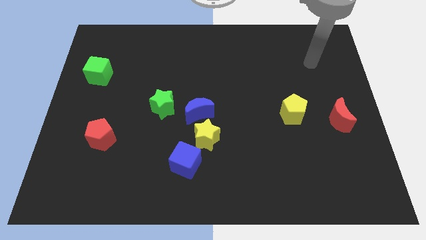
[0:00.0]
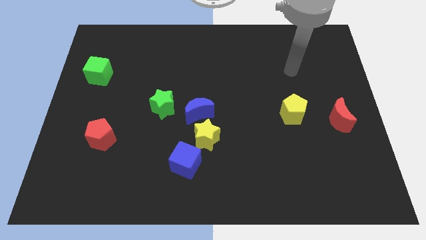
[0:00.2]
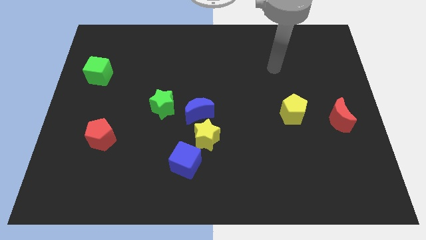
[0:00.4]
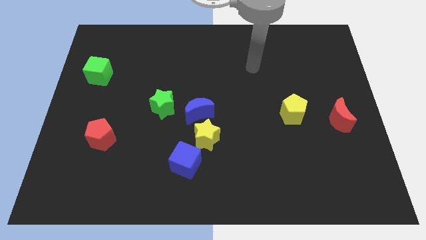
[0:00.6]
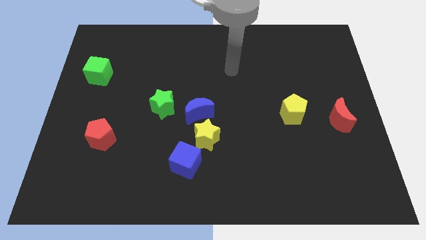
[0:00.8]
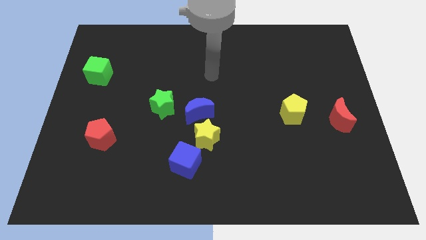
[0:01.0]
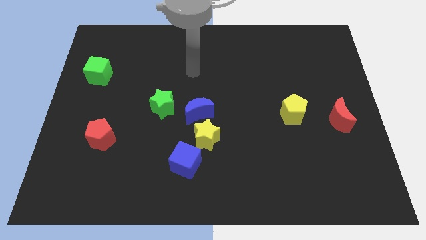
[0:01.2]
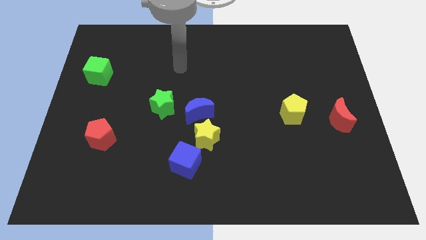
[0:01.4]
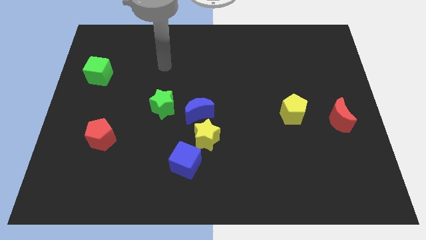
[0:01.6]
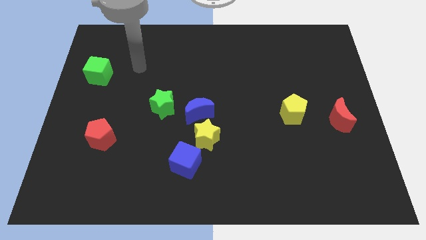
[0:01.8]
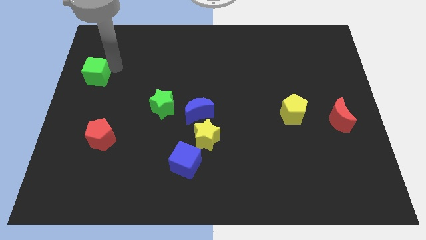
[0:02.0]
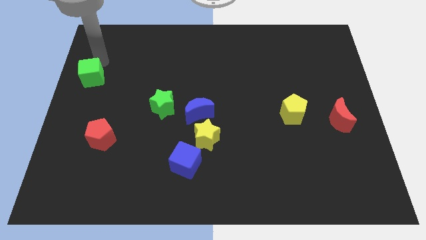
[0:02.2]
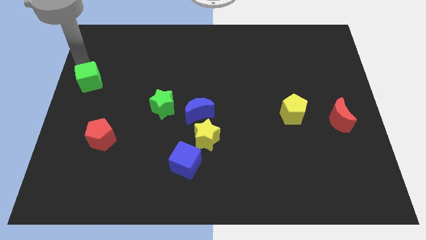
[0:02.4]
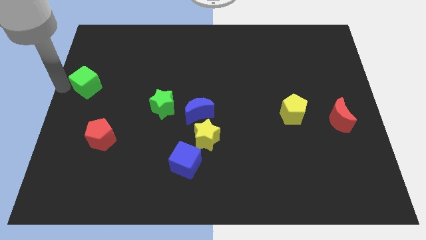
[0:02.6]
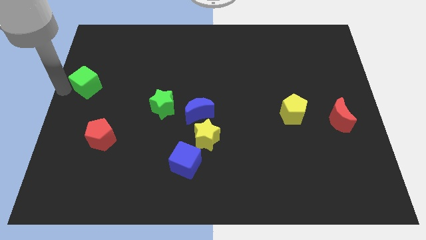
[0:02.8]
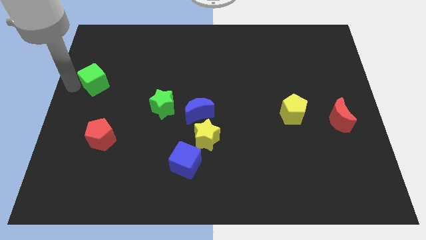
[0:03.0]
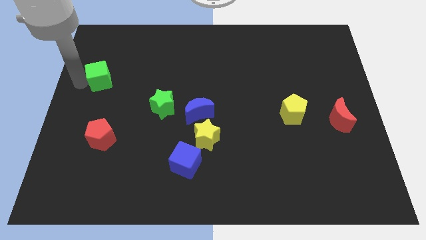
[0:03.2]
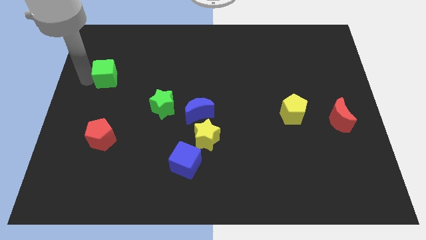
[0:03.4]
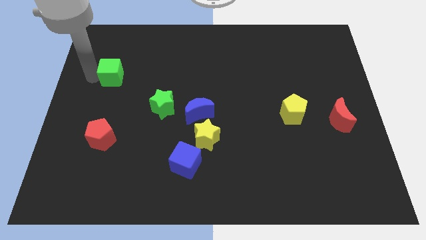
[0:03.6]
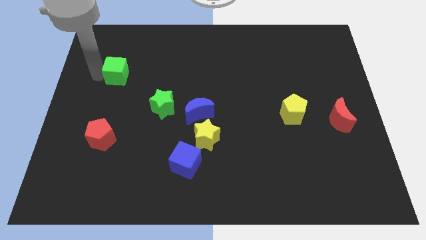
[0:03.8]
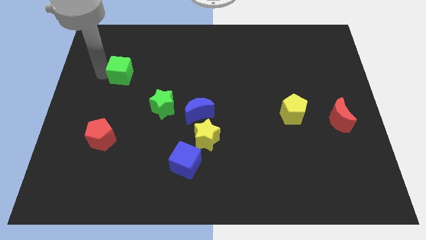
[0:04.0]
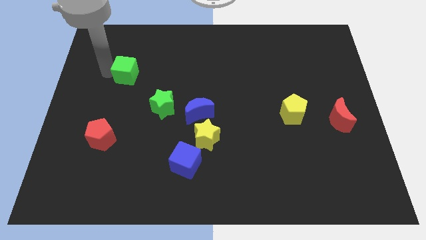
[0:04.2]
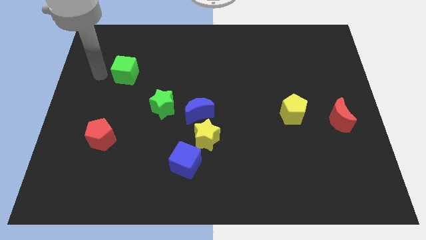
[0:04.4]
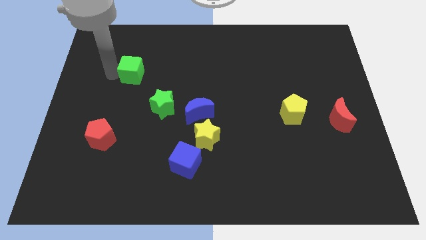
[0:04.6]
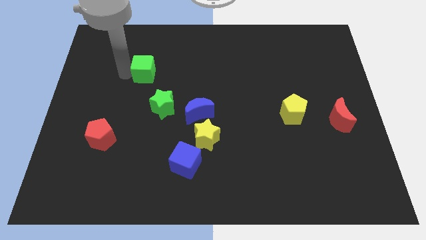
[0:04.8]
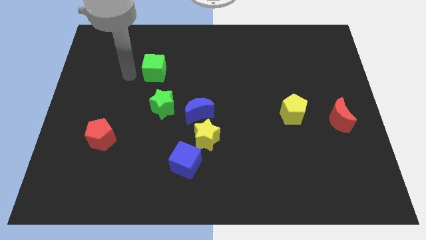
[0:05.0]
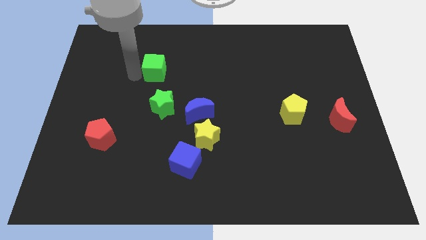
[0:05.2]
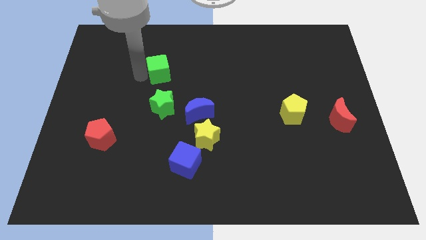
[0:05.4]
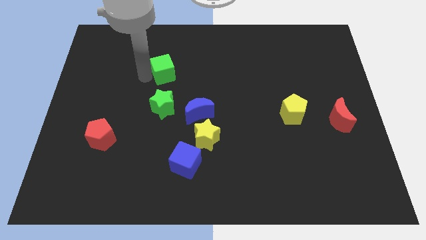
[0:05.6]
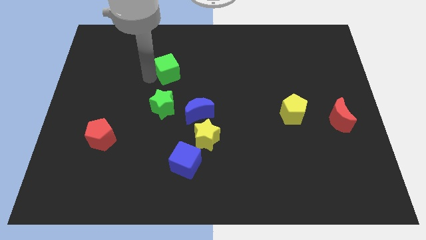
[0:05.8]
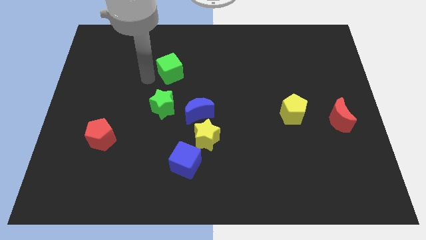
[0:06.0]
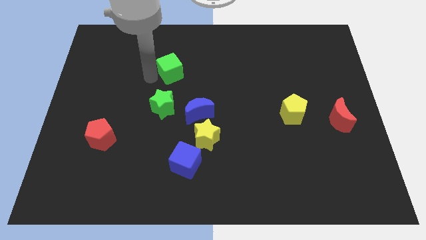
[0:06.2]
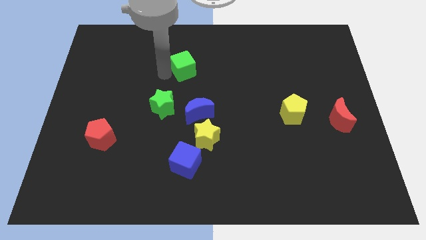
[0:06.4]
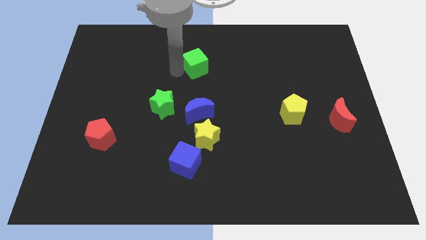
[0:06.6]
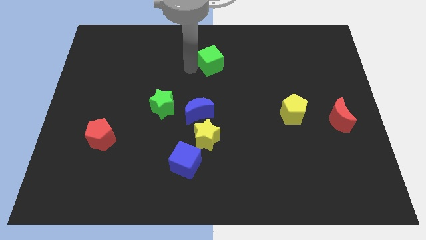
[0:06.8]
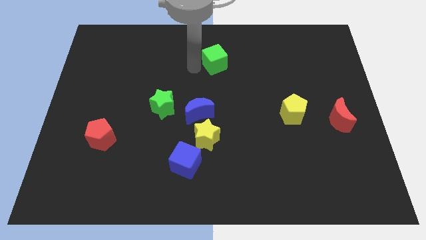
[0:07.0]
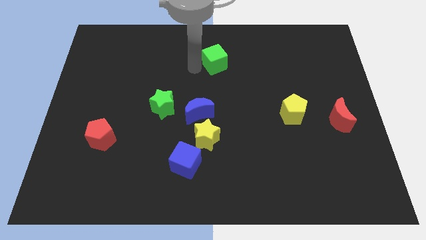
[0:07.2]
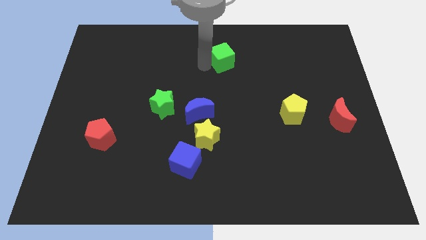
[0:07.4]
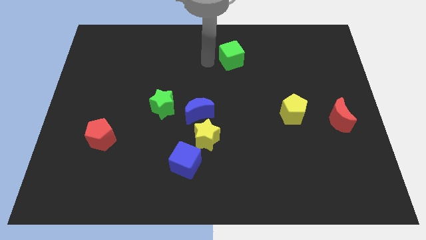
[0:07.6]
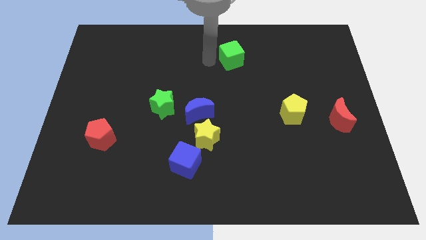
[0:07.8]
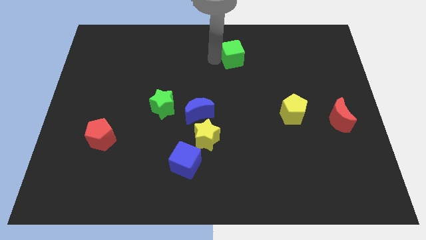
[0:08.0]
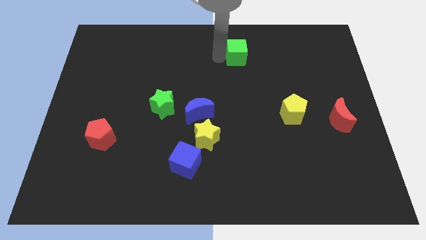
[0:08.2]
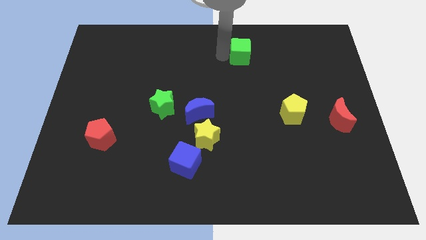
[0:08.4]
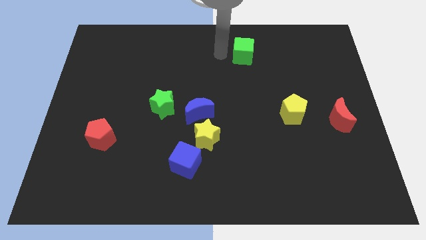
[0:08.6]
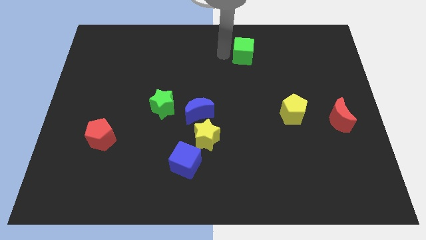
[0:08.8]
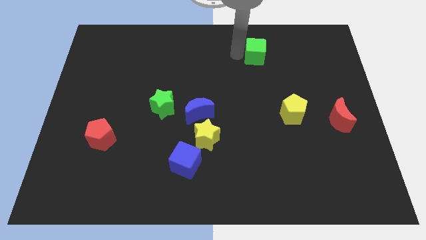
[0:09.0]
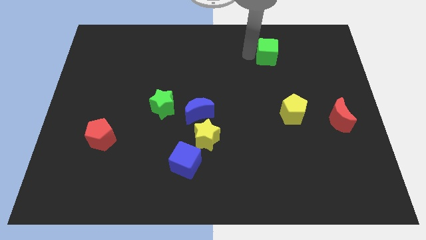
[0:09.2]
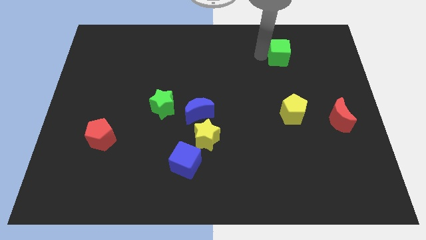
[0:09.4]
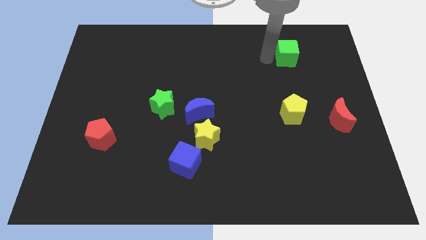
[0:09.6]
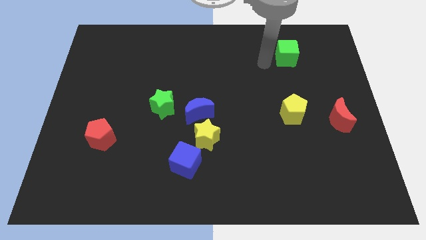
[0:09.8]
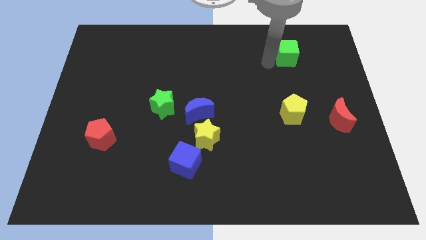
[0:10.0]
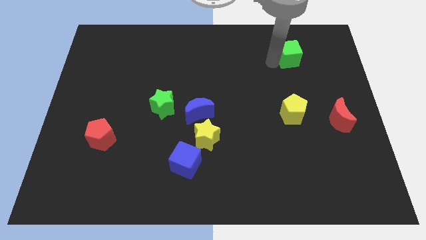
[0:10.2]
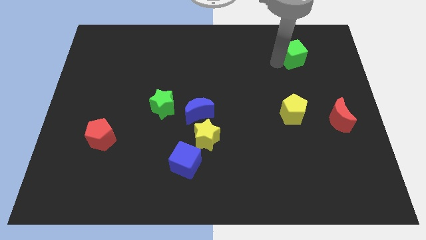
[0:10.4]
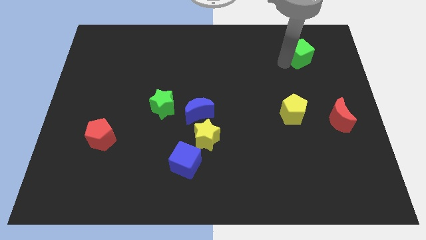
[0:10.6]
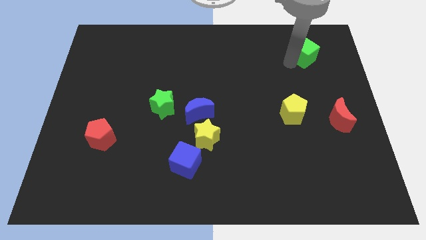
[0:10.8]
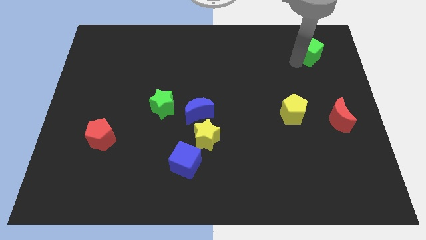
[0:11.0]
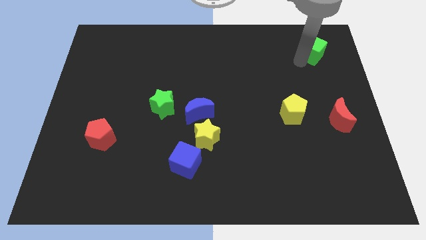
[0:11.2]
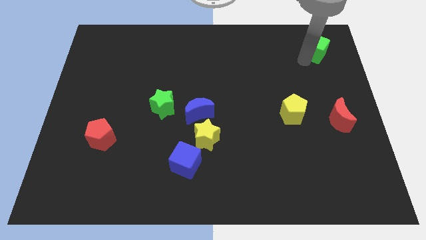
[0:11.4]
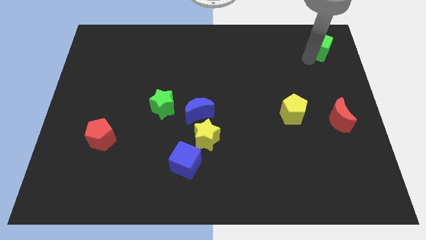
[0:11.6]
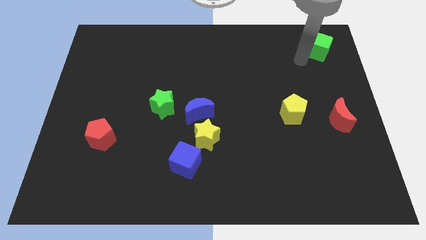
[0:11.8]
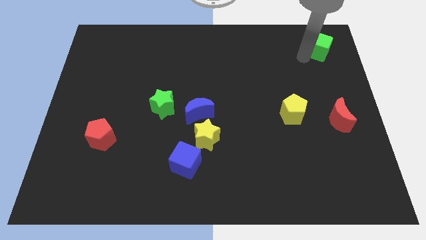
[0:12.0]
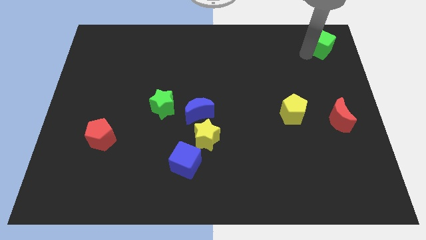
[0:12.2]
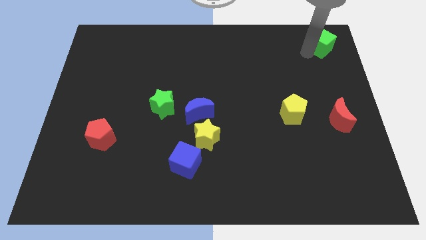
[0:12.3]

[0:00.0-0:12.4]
push the green cube to the upper right corner

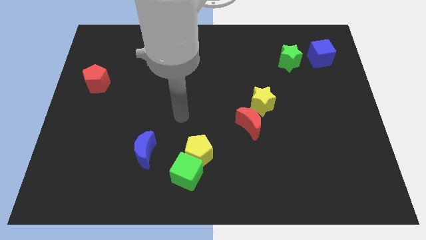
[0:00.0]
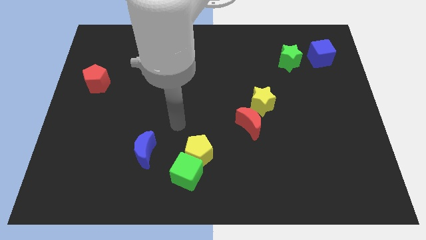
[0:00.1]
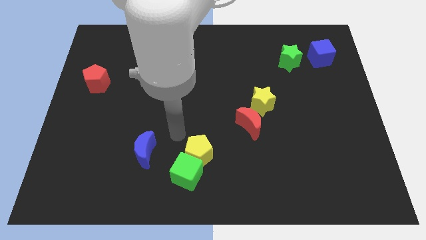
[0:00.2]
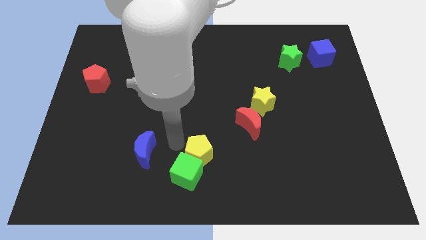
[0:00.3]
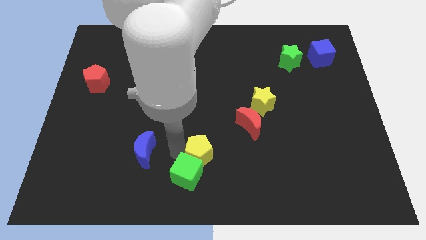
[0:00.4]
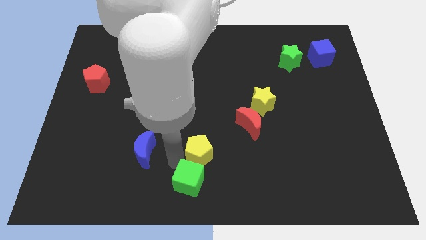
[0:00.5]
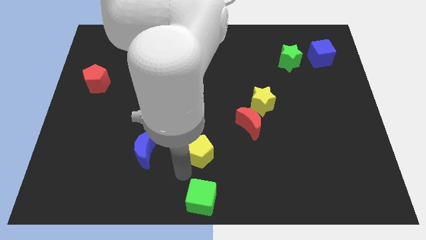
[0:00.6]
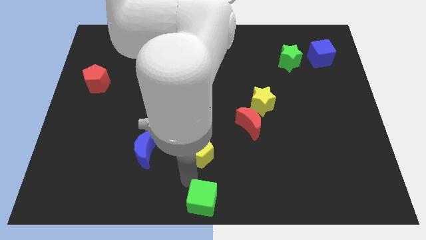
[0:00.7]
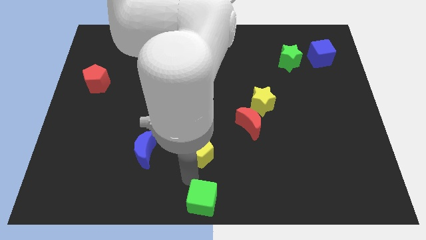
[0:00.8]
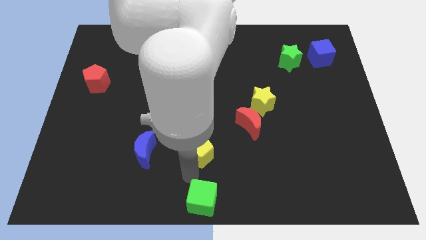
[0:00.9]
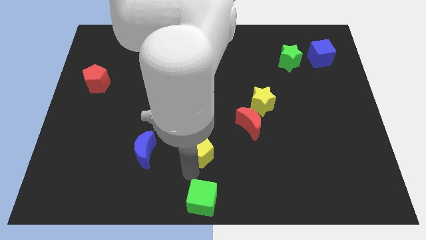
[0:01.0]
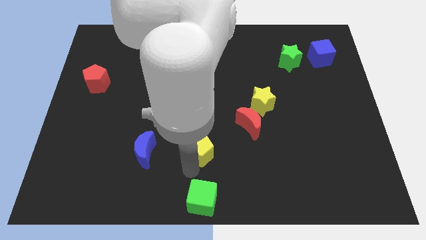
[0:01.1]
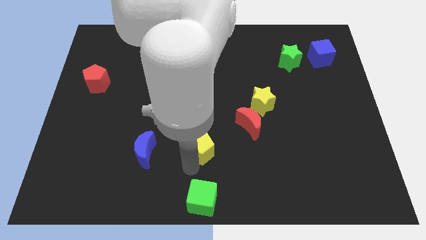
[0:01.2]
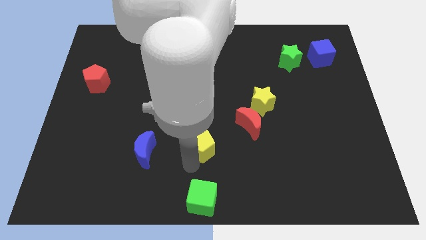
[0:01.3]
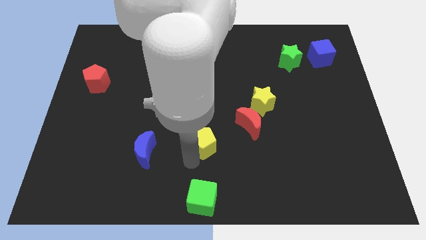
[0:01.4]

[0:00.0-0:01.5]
push the yellow pentagon to the center of the board
